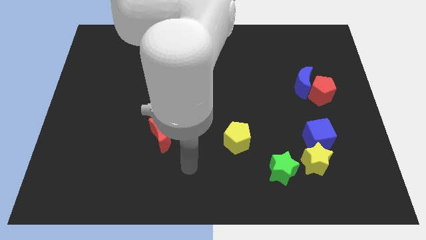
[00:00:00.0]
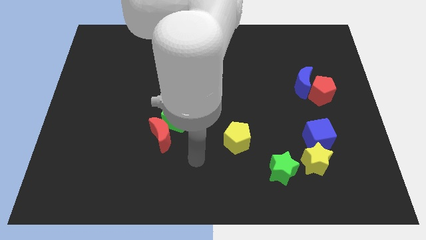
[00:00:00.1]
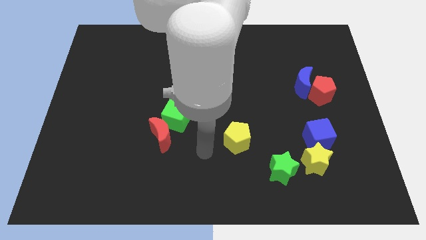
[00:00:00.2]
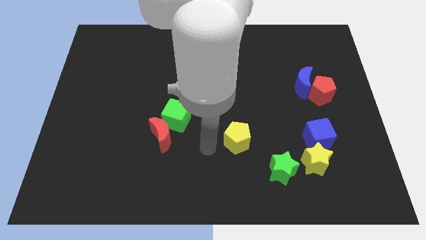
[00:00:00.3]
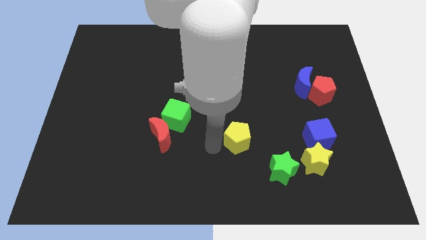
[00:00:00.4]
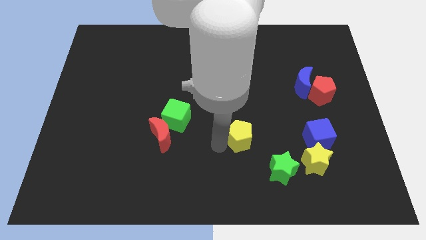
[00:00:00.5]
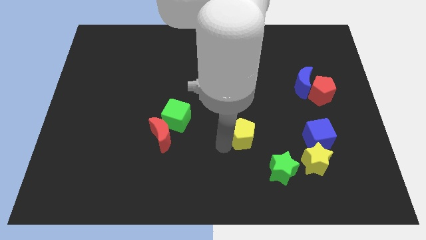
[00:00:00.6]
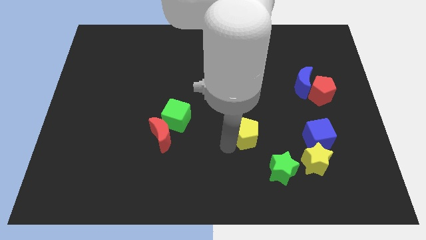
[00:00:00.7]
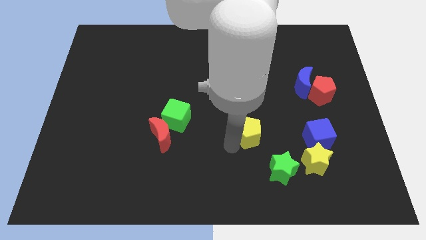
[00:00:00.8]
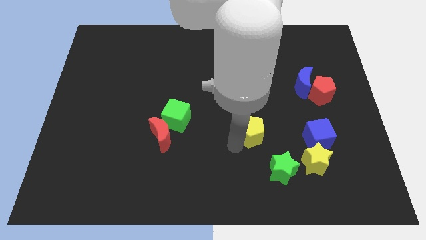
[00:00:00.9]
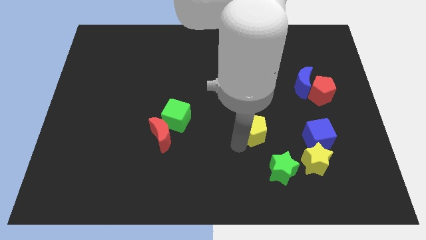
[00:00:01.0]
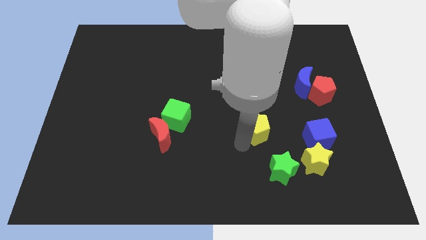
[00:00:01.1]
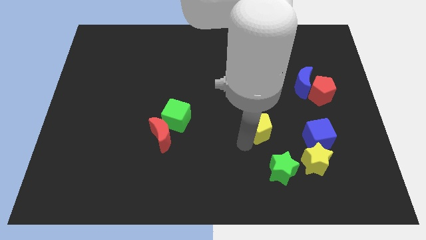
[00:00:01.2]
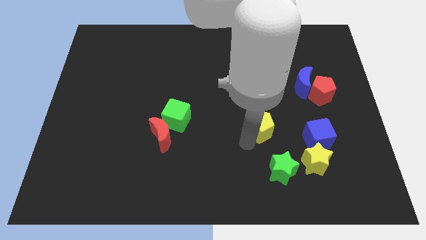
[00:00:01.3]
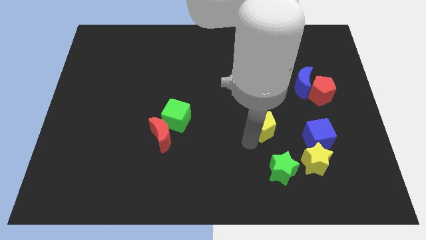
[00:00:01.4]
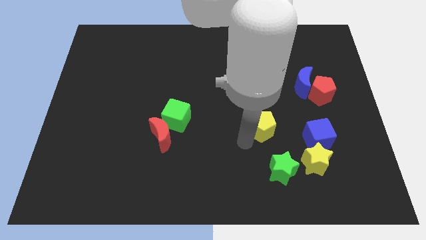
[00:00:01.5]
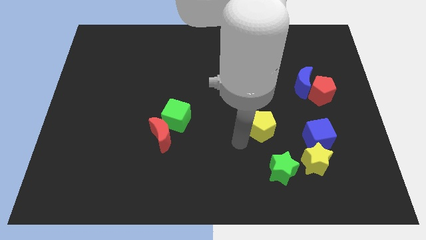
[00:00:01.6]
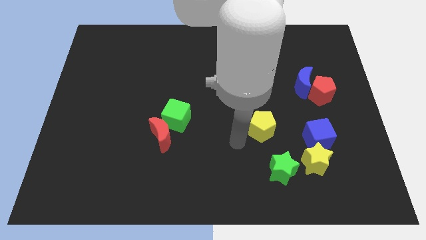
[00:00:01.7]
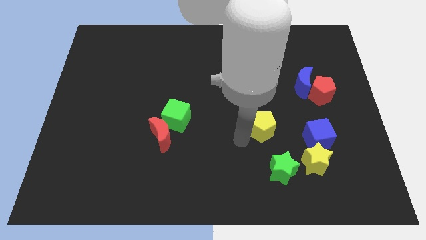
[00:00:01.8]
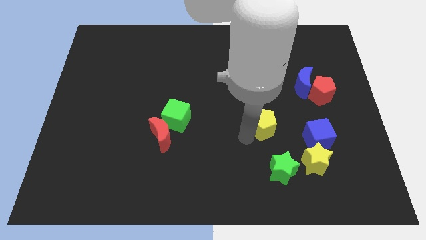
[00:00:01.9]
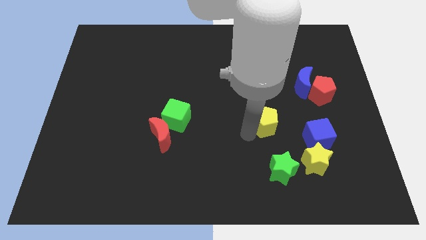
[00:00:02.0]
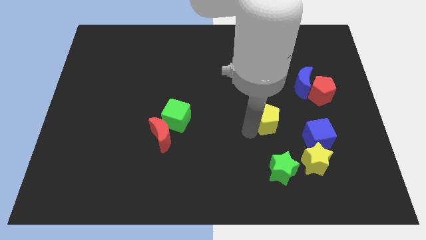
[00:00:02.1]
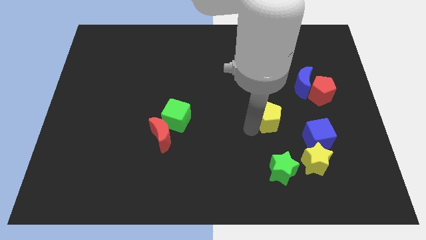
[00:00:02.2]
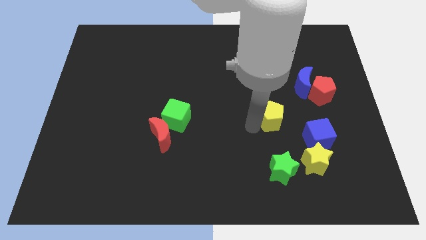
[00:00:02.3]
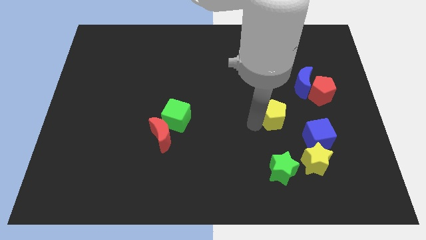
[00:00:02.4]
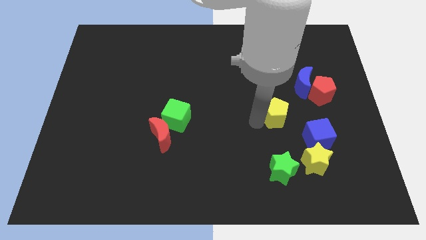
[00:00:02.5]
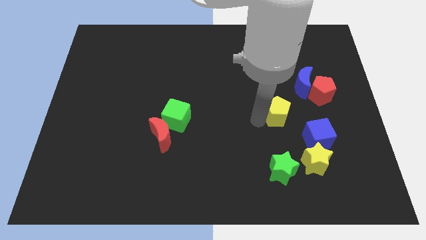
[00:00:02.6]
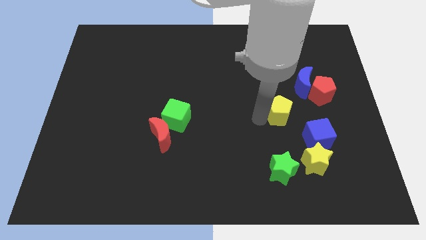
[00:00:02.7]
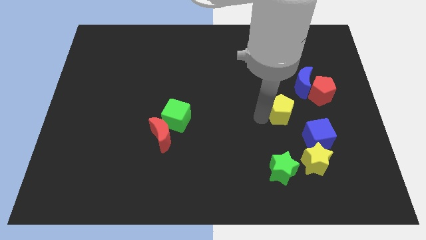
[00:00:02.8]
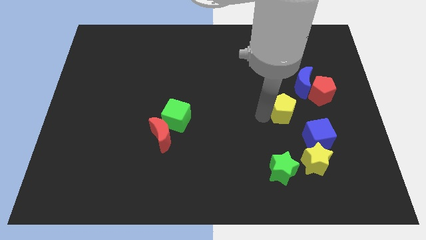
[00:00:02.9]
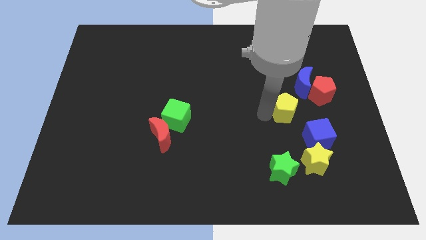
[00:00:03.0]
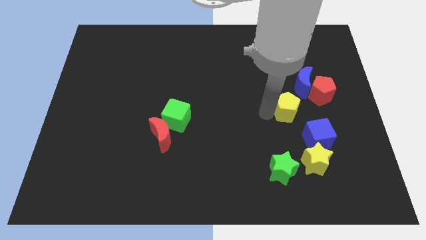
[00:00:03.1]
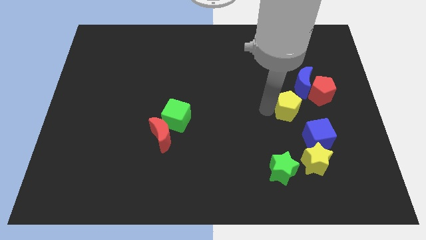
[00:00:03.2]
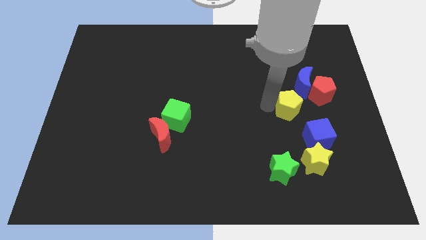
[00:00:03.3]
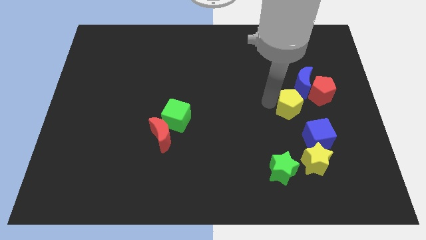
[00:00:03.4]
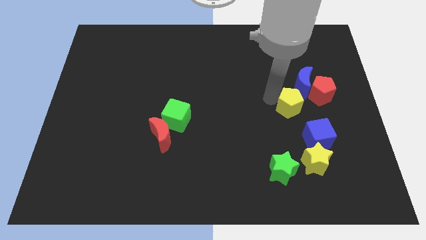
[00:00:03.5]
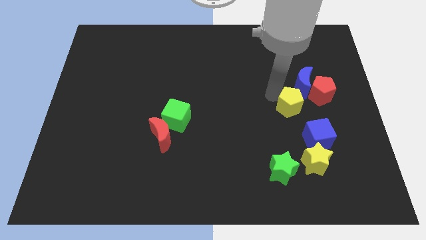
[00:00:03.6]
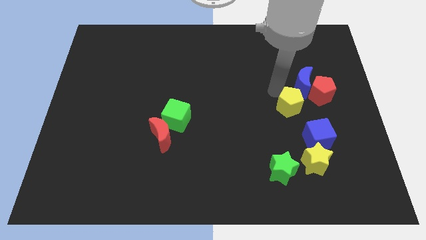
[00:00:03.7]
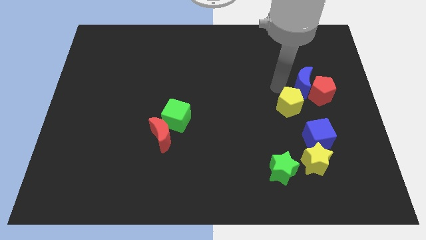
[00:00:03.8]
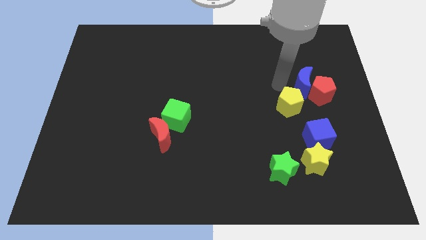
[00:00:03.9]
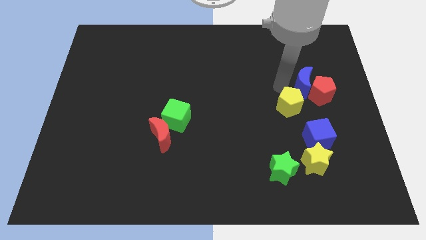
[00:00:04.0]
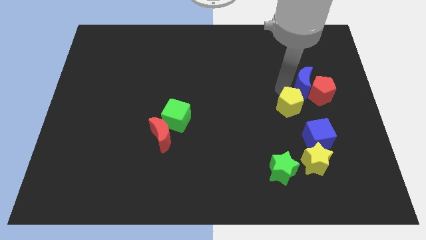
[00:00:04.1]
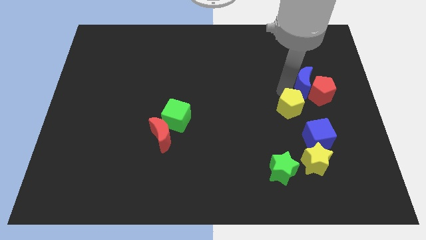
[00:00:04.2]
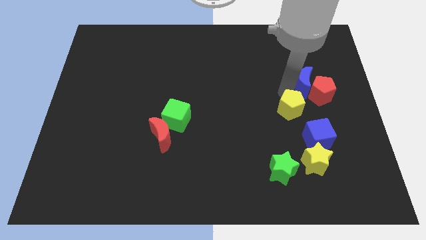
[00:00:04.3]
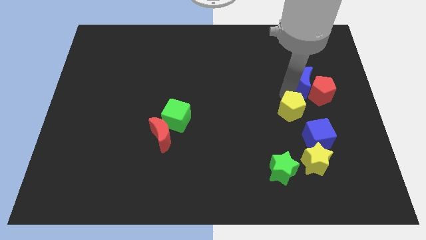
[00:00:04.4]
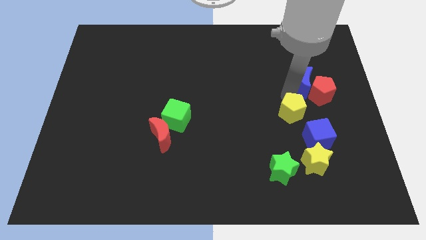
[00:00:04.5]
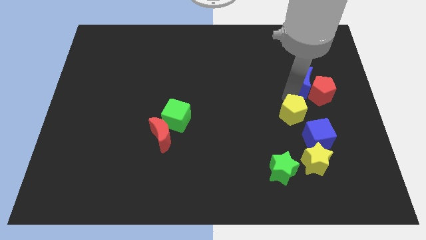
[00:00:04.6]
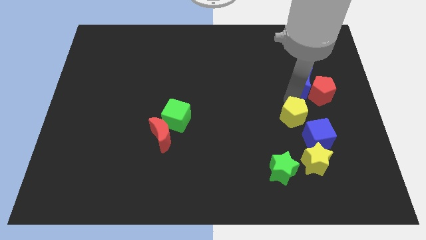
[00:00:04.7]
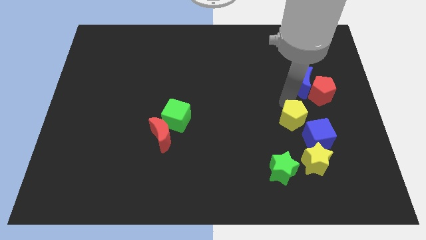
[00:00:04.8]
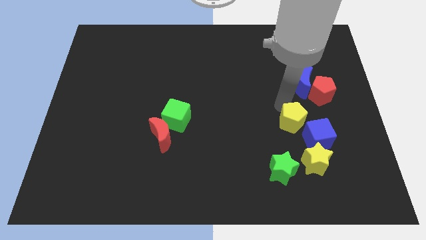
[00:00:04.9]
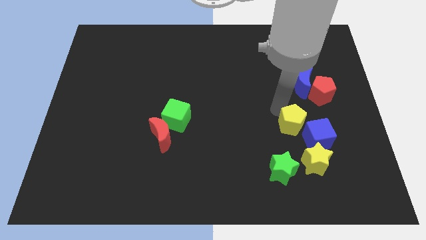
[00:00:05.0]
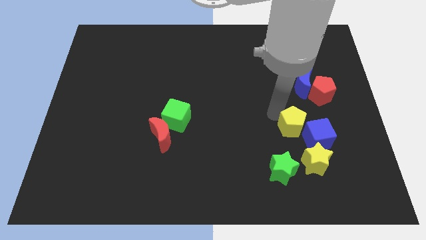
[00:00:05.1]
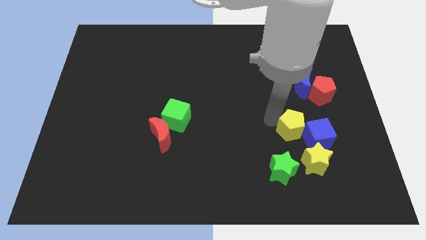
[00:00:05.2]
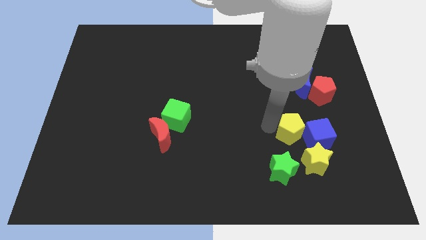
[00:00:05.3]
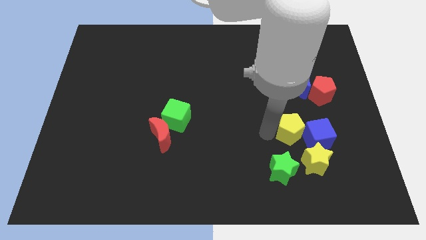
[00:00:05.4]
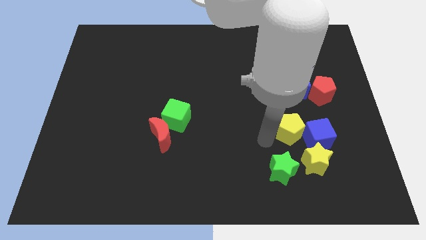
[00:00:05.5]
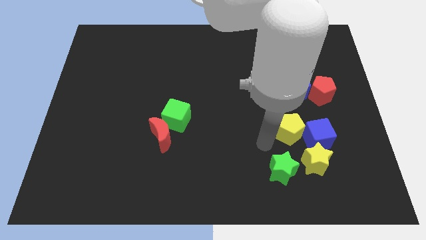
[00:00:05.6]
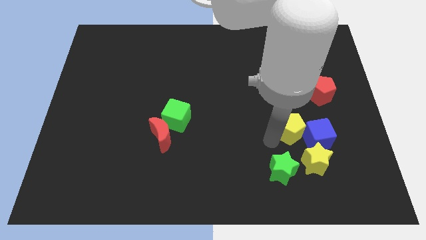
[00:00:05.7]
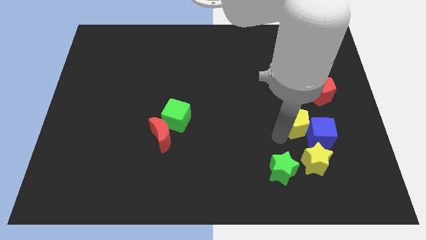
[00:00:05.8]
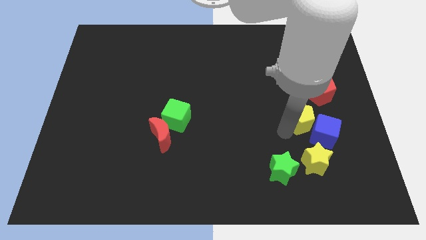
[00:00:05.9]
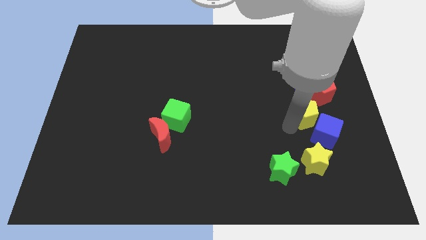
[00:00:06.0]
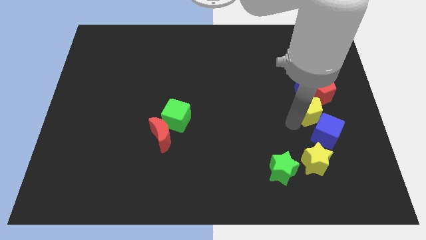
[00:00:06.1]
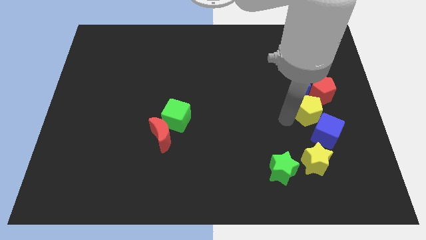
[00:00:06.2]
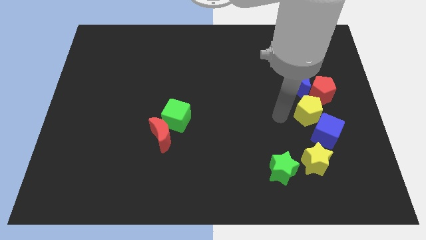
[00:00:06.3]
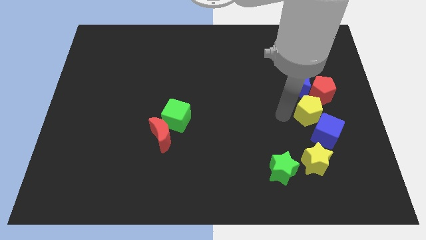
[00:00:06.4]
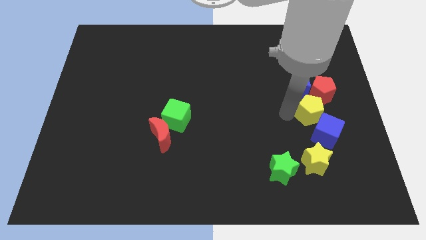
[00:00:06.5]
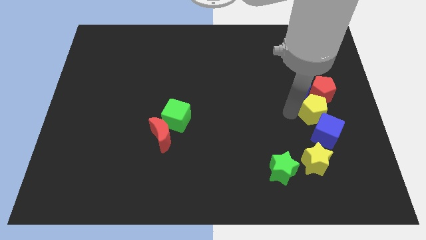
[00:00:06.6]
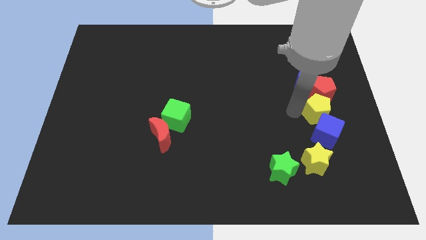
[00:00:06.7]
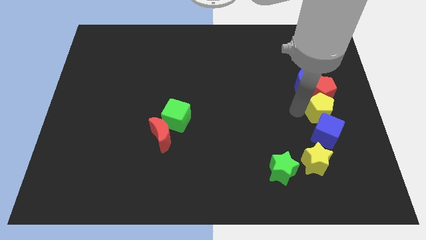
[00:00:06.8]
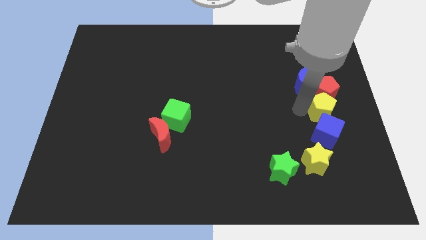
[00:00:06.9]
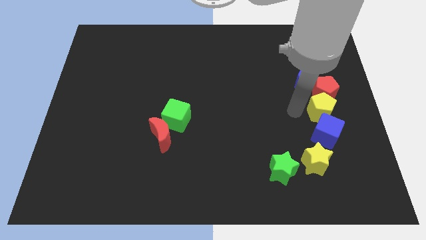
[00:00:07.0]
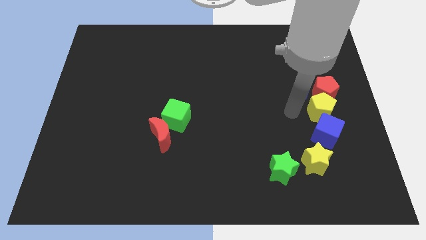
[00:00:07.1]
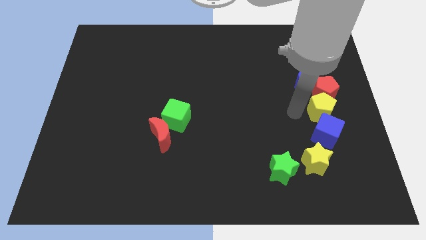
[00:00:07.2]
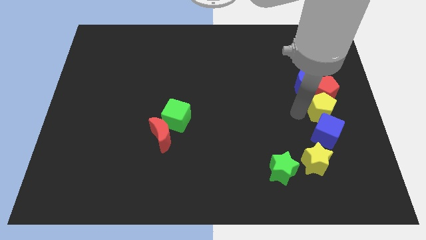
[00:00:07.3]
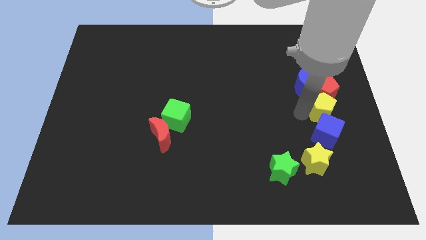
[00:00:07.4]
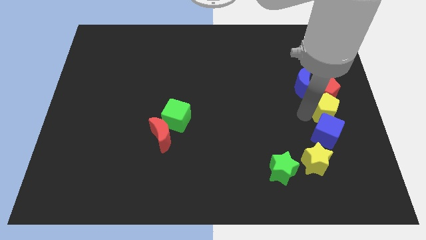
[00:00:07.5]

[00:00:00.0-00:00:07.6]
slide the yellow pentagon to the right side
